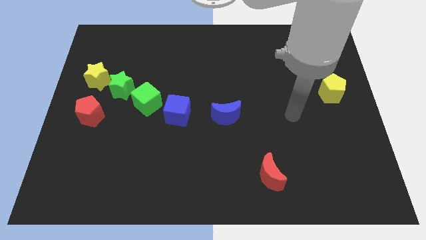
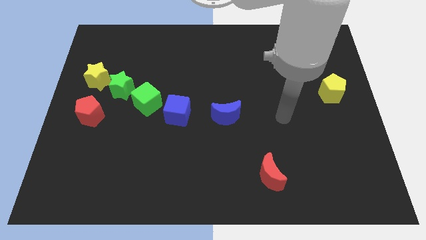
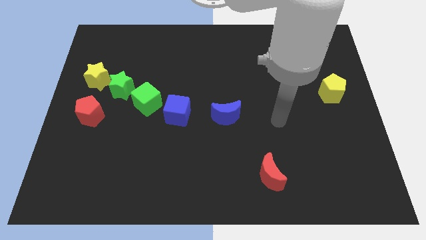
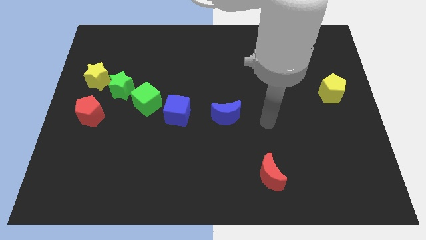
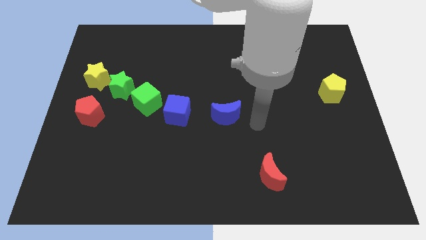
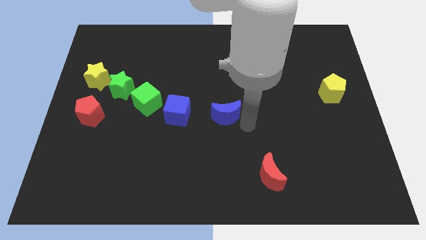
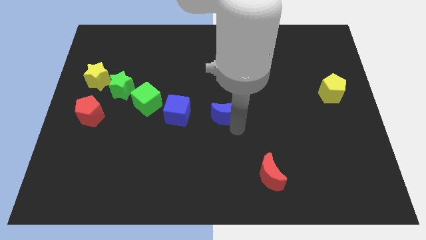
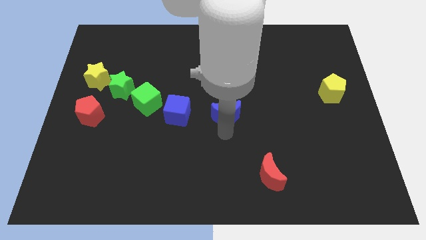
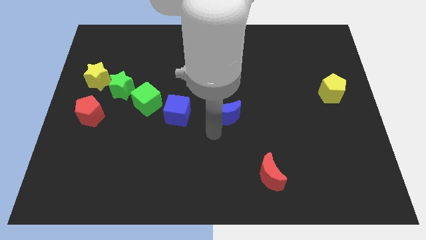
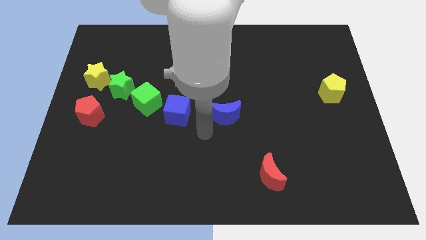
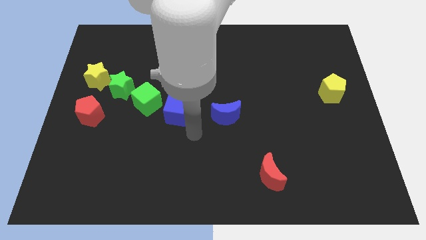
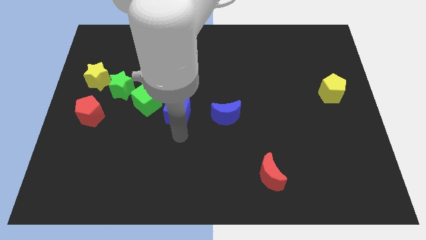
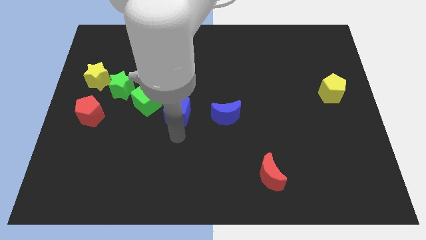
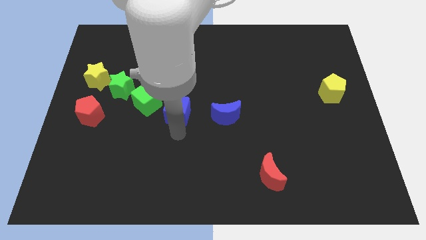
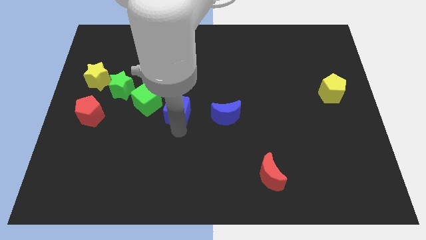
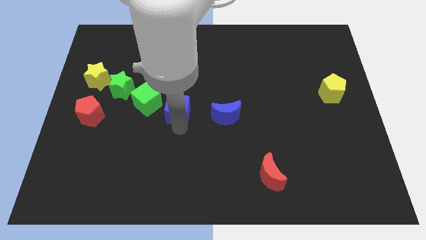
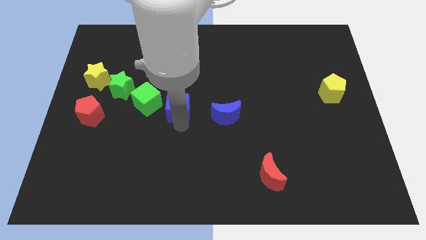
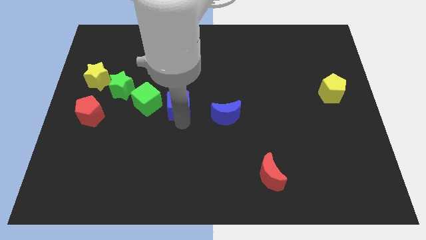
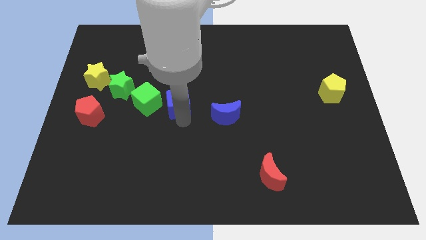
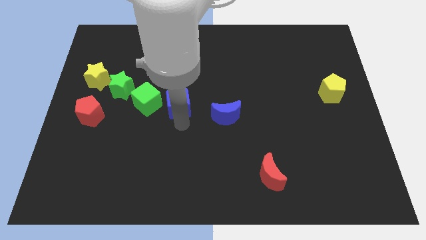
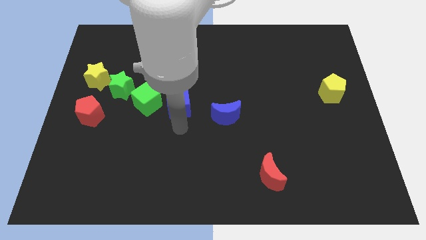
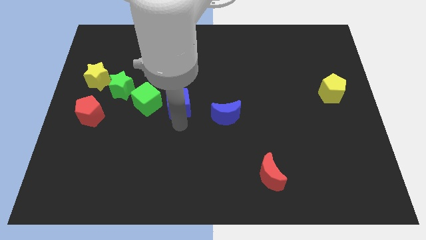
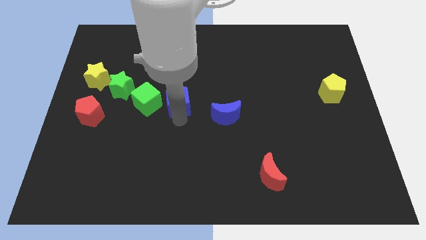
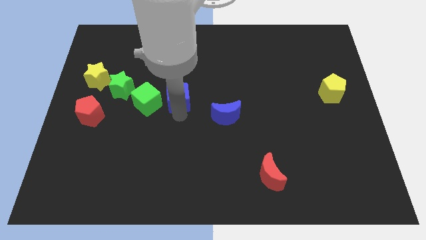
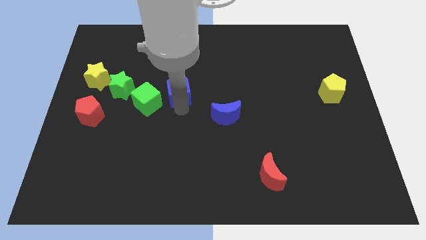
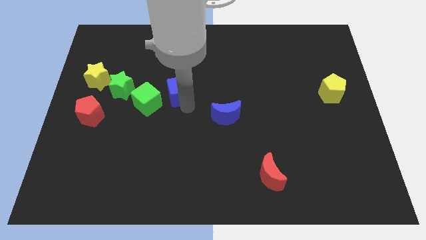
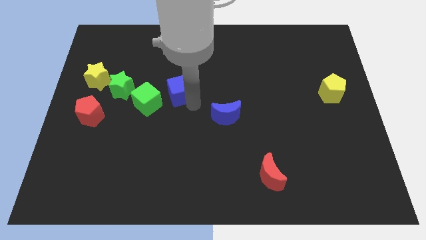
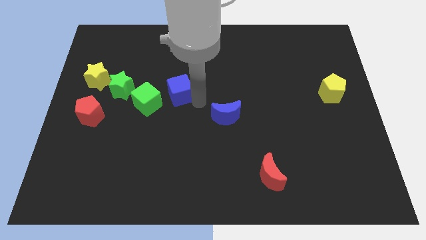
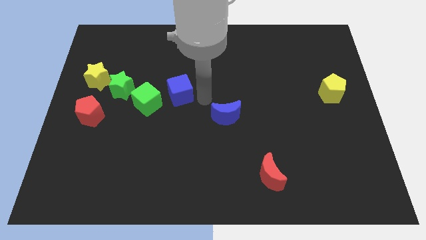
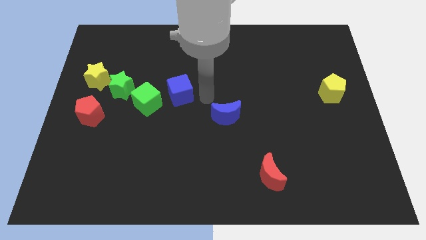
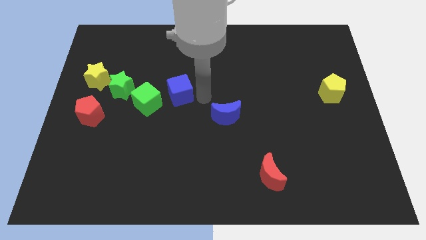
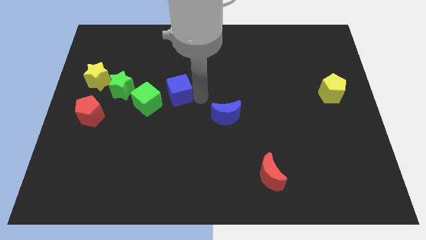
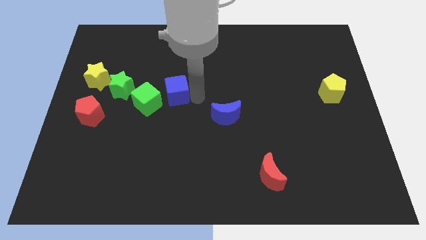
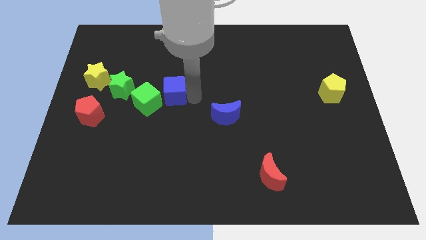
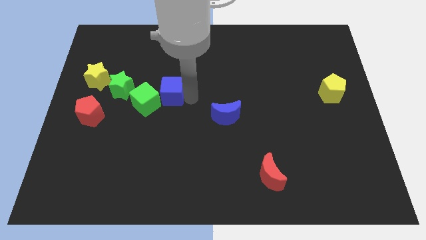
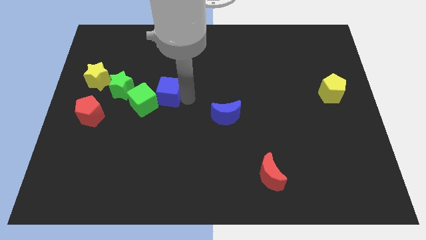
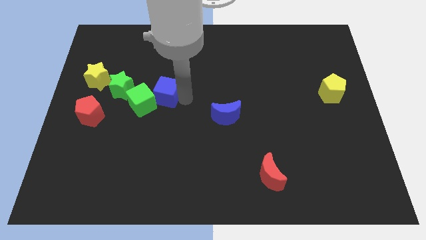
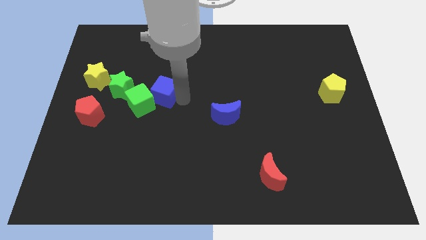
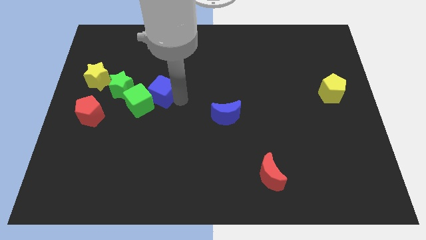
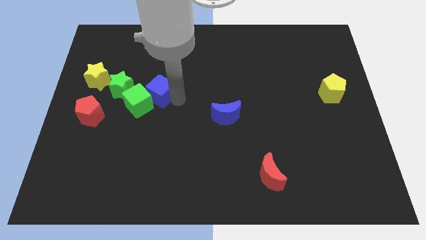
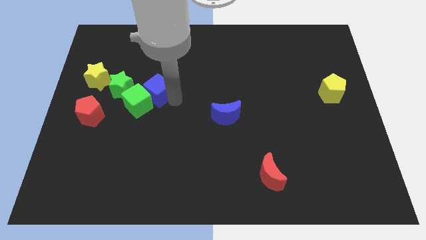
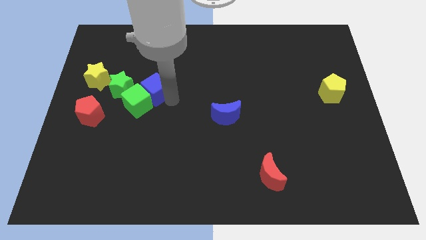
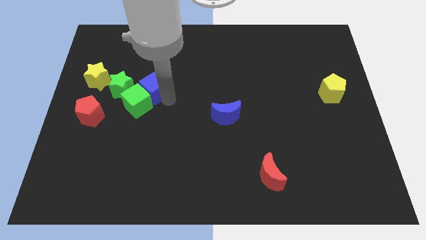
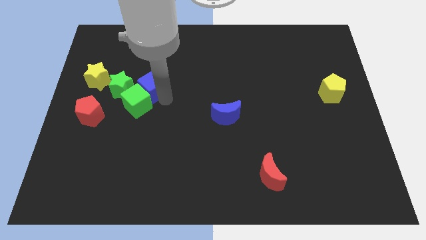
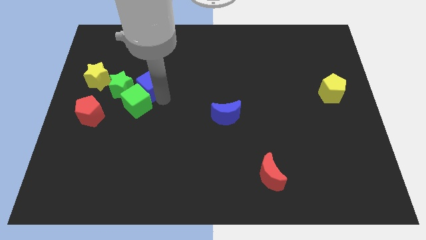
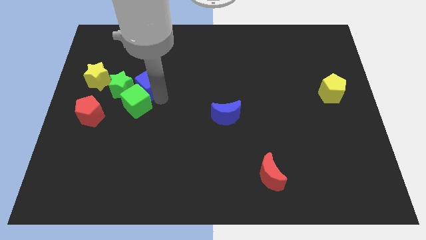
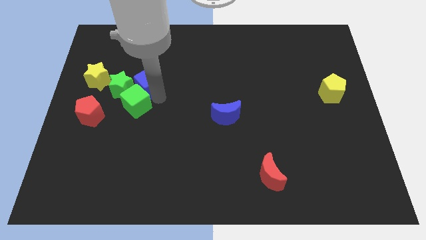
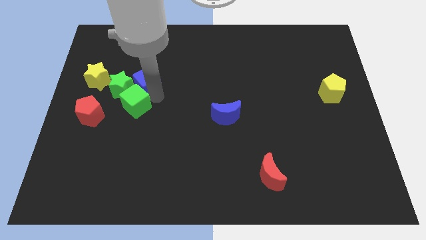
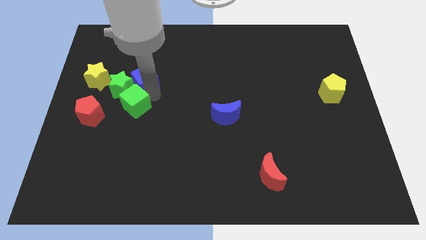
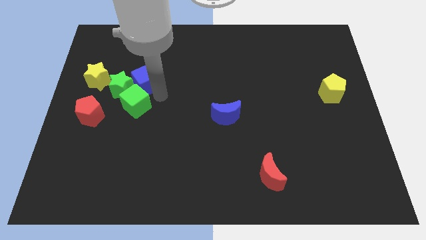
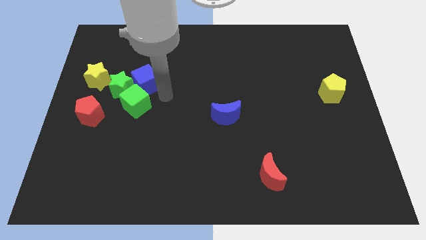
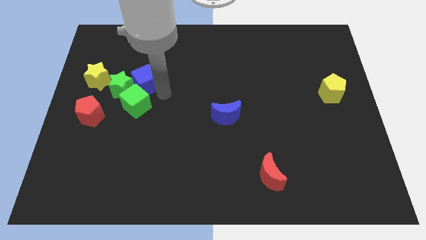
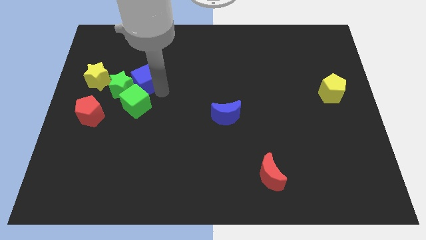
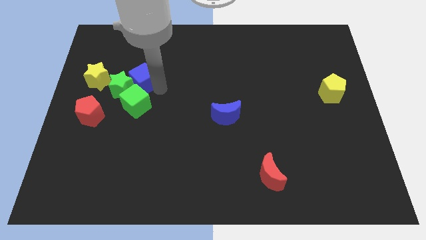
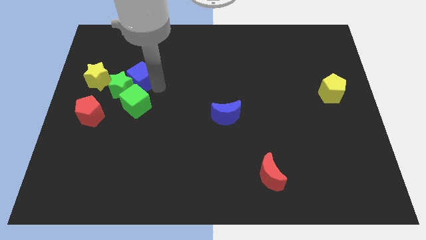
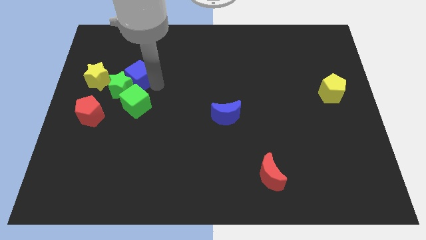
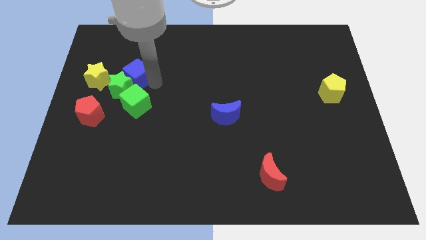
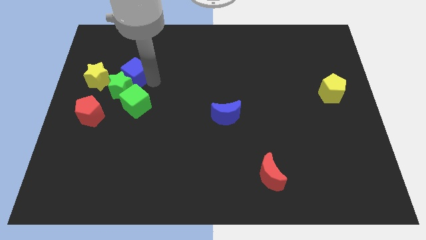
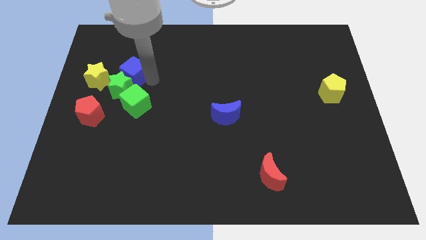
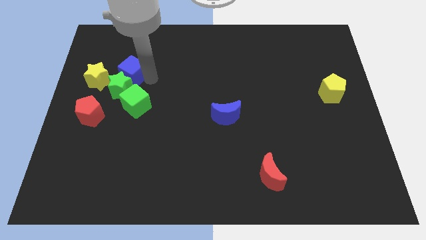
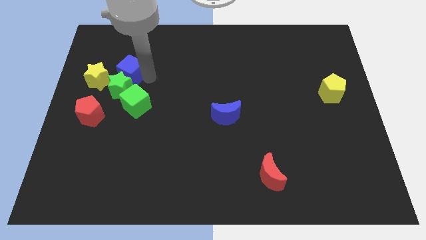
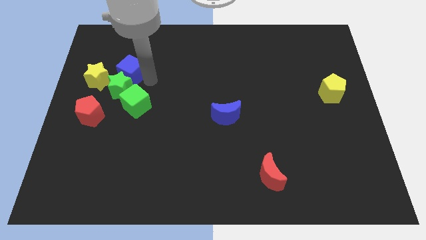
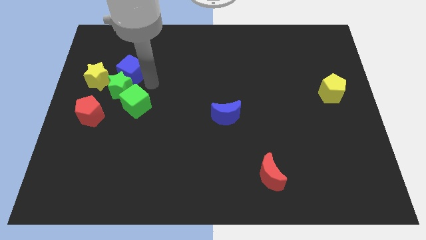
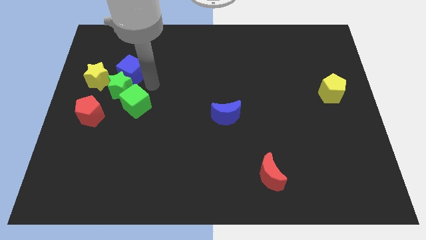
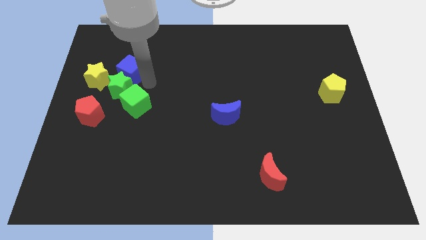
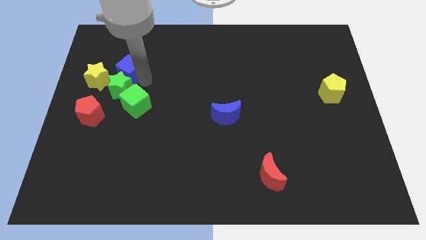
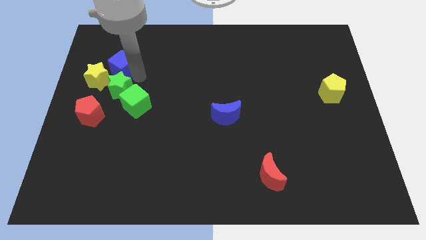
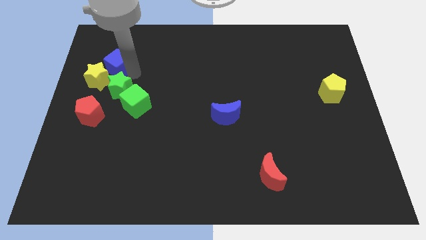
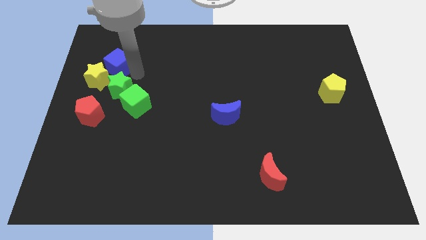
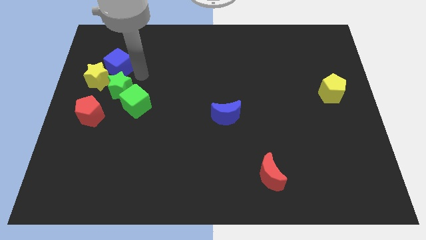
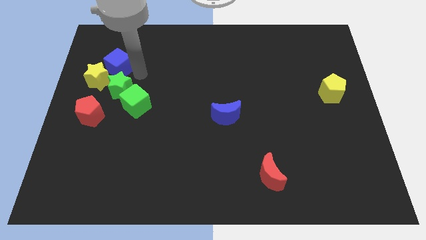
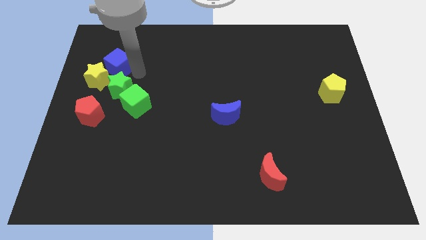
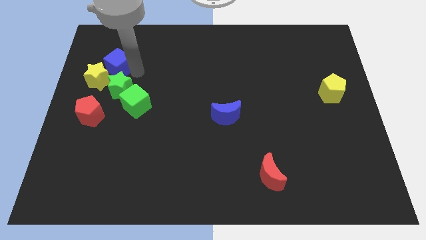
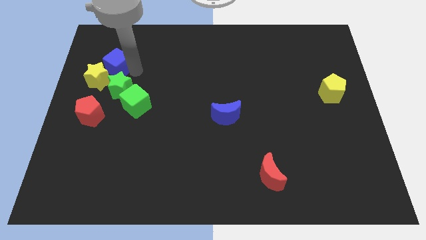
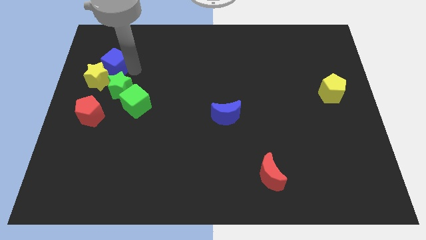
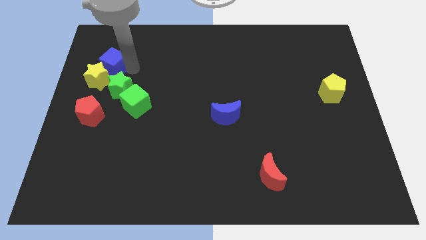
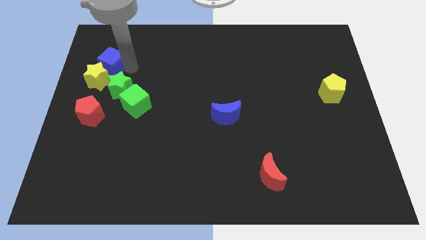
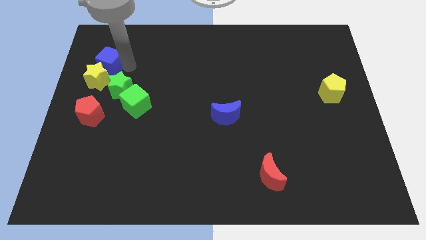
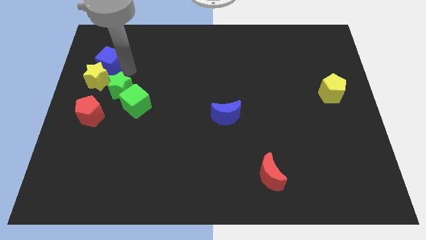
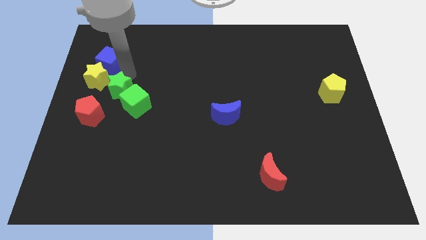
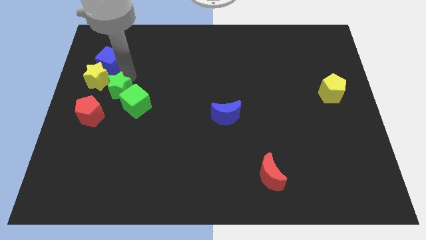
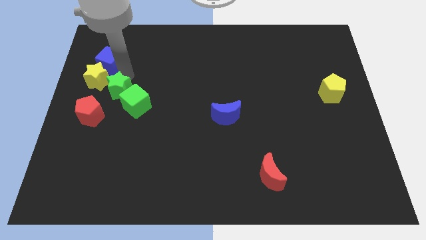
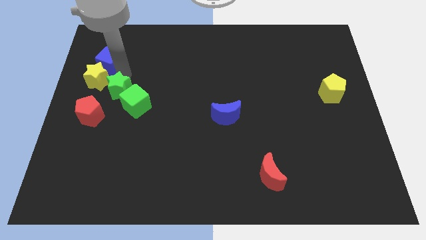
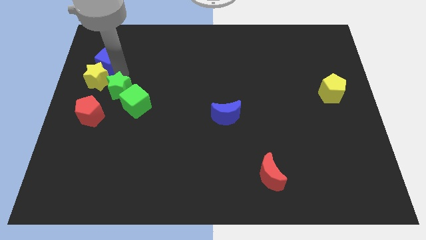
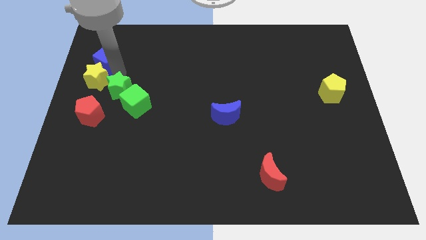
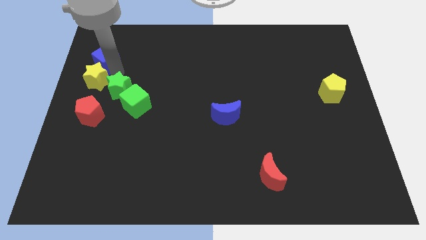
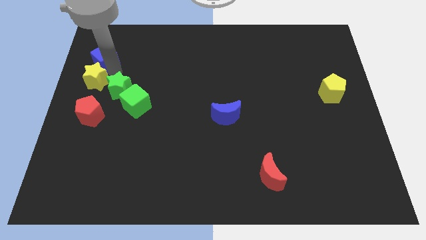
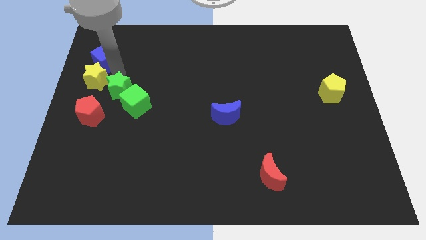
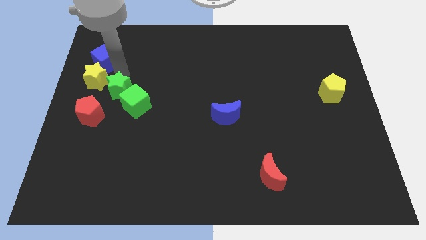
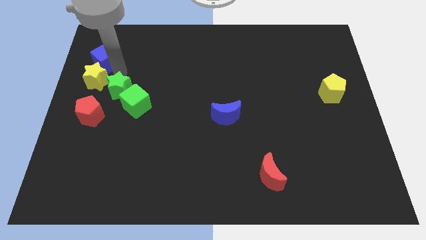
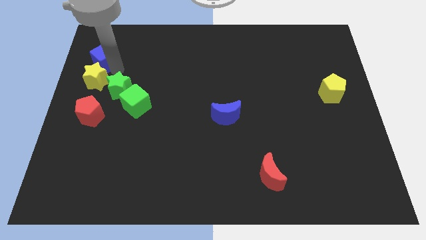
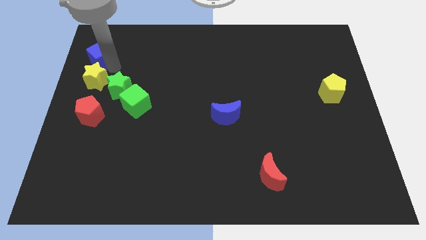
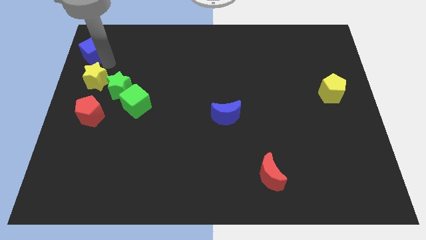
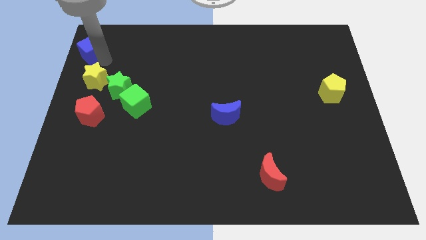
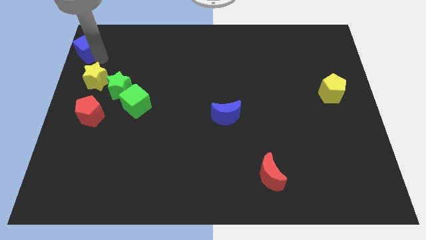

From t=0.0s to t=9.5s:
move the blue cube to the top left corner
